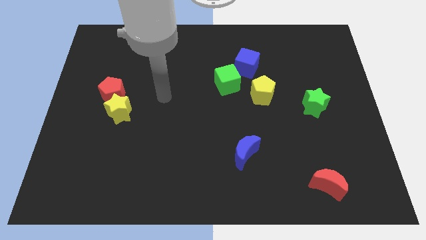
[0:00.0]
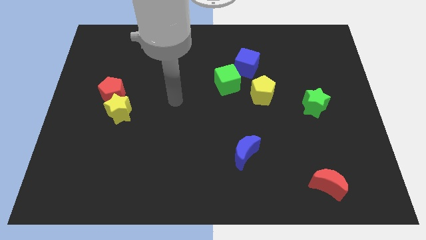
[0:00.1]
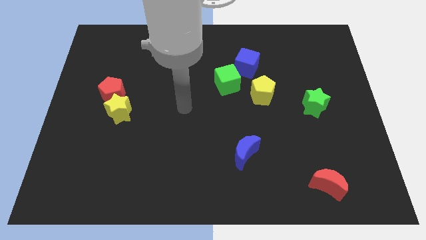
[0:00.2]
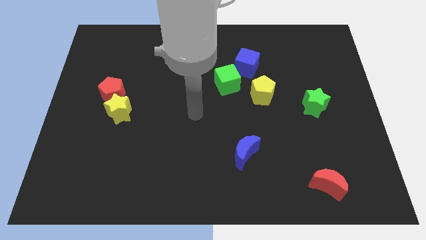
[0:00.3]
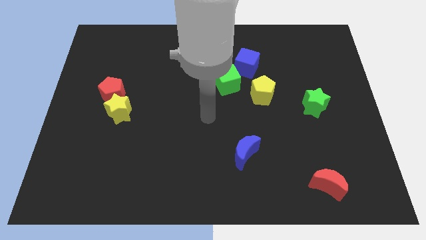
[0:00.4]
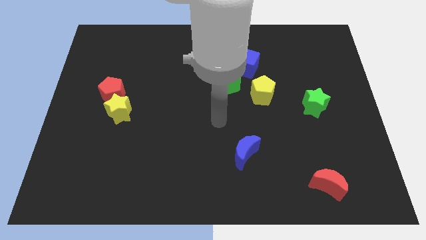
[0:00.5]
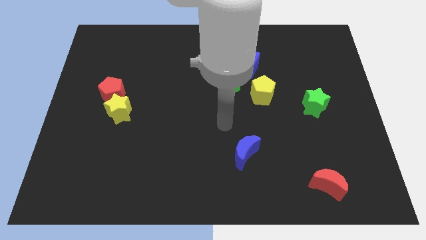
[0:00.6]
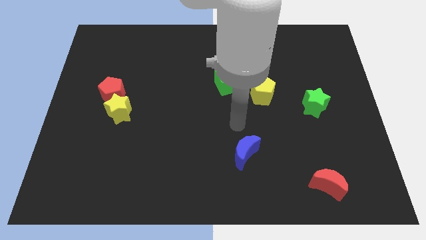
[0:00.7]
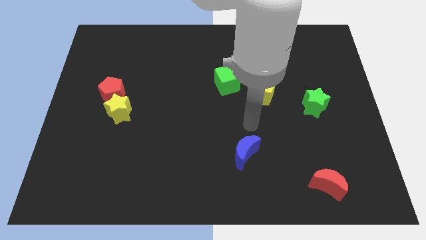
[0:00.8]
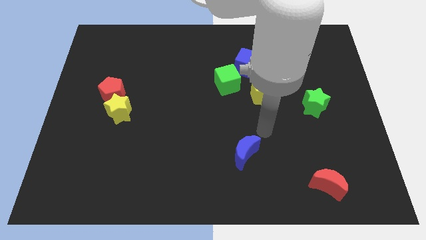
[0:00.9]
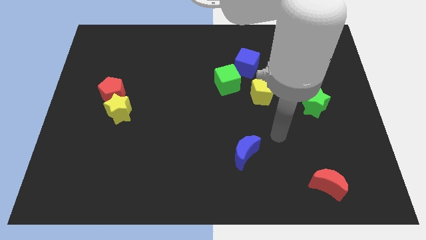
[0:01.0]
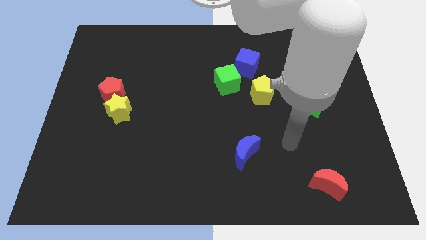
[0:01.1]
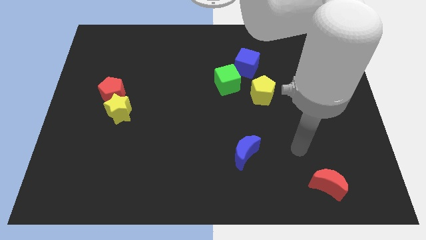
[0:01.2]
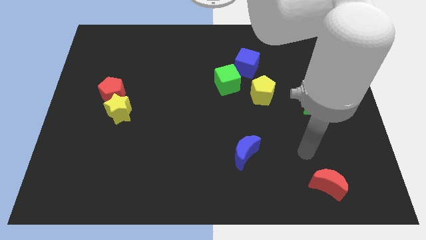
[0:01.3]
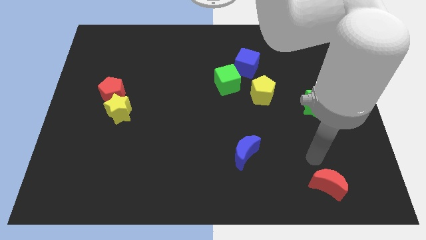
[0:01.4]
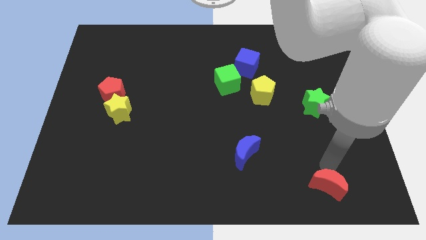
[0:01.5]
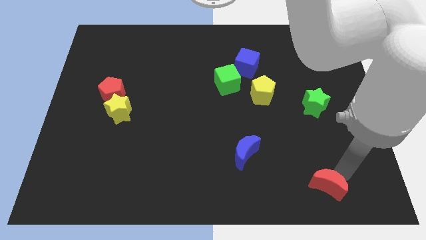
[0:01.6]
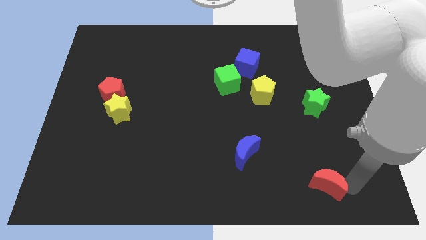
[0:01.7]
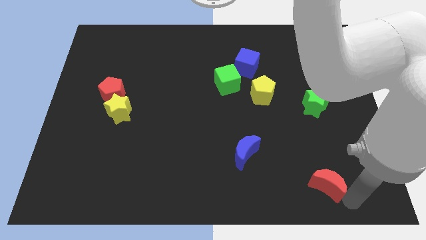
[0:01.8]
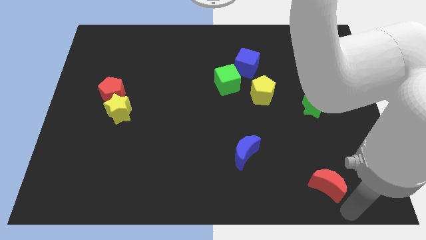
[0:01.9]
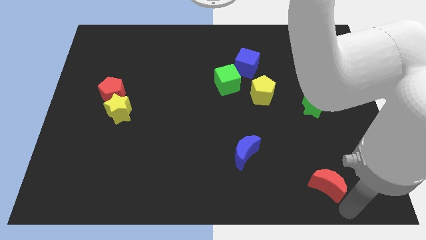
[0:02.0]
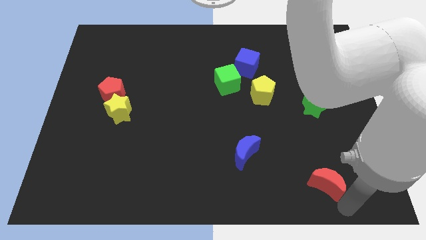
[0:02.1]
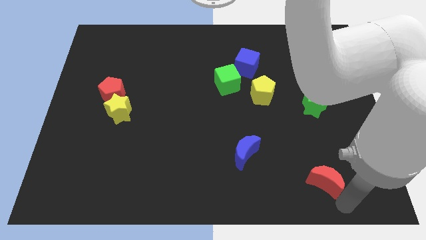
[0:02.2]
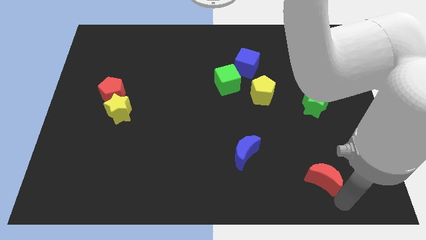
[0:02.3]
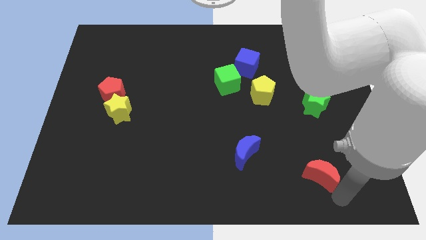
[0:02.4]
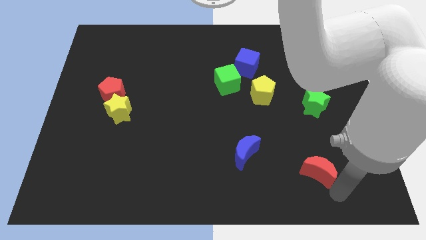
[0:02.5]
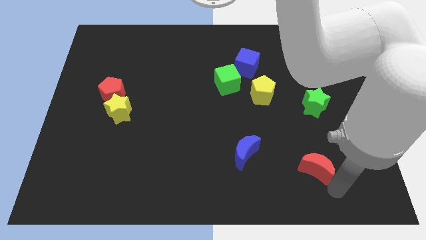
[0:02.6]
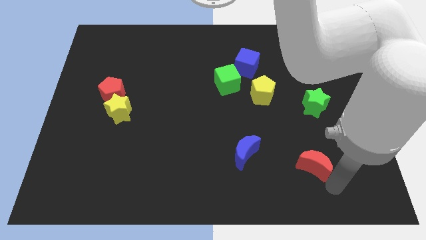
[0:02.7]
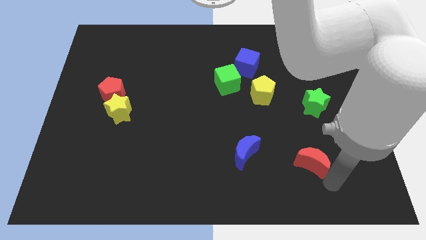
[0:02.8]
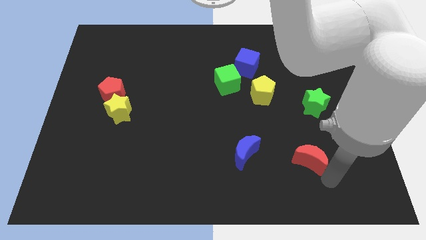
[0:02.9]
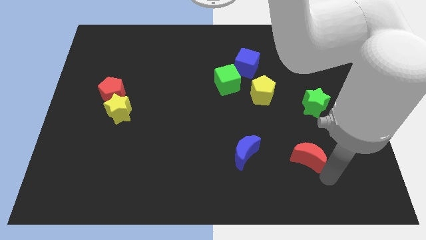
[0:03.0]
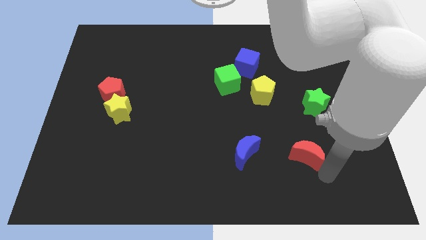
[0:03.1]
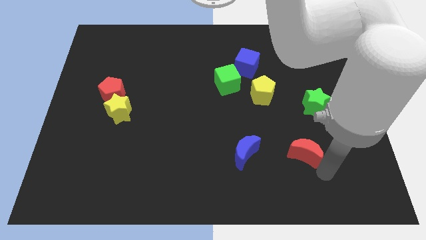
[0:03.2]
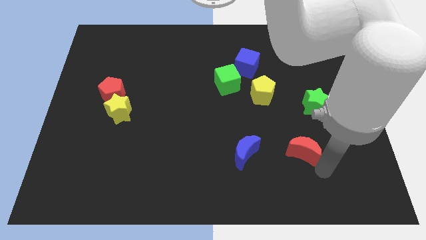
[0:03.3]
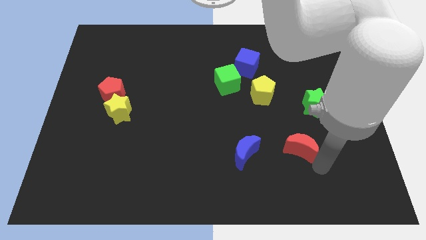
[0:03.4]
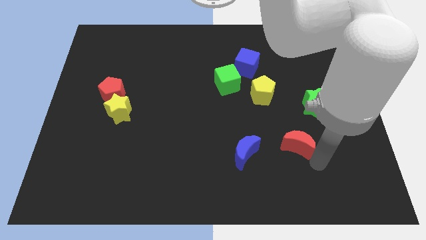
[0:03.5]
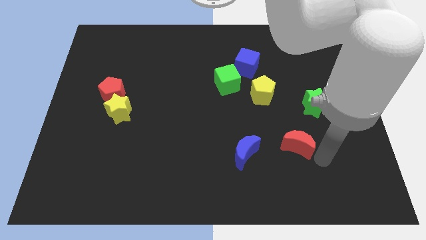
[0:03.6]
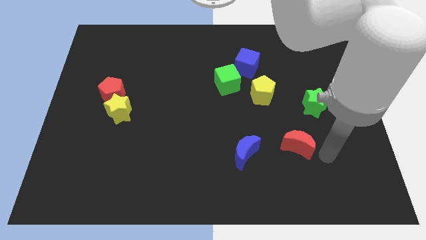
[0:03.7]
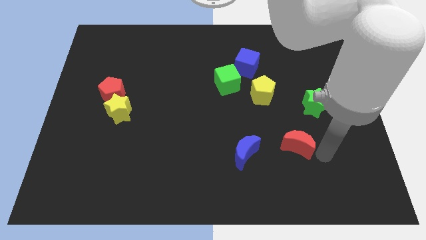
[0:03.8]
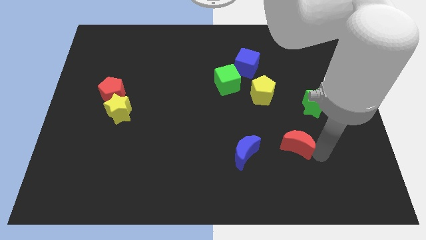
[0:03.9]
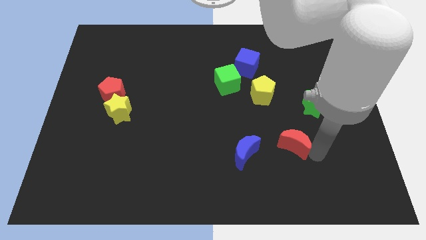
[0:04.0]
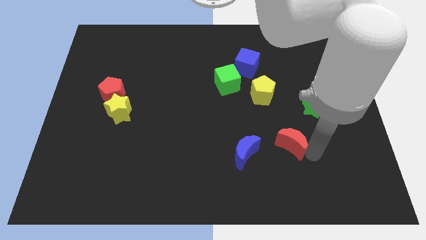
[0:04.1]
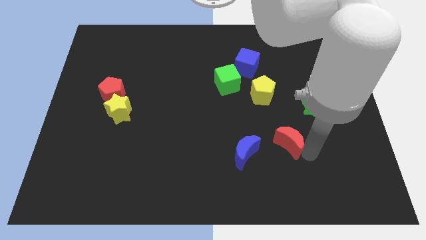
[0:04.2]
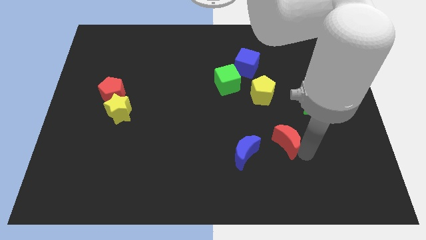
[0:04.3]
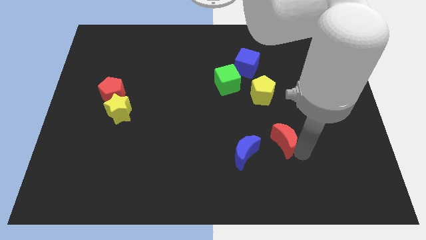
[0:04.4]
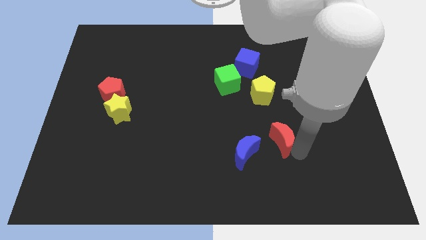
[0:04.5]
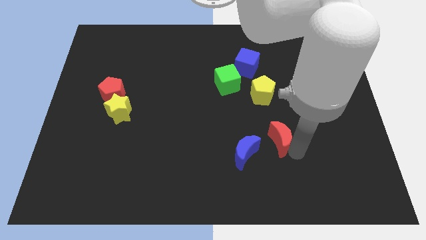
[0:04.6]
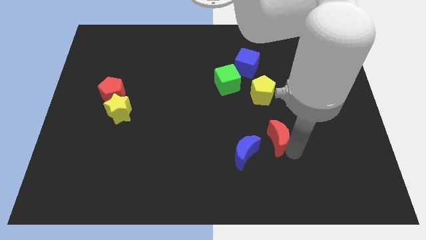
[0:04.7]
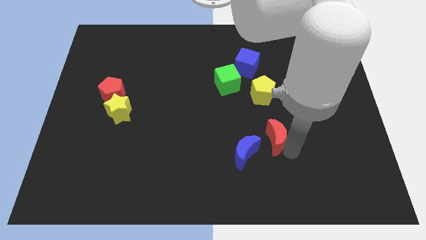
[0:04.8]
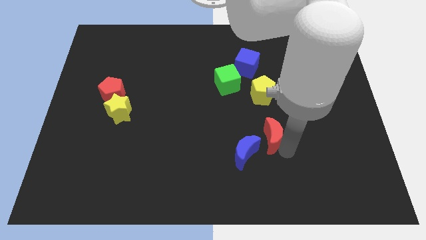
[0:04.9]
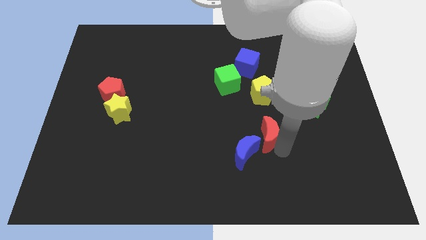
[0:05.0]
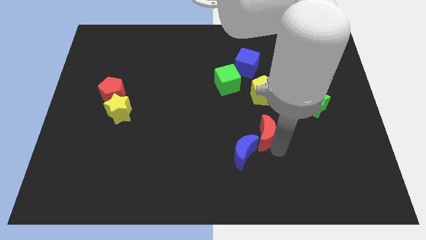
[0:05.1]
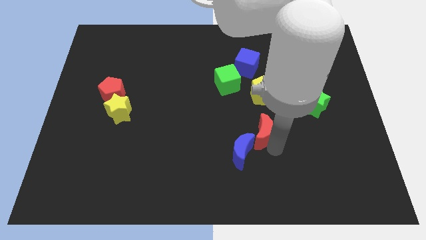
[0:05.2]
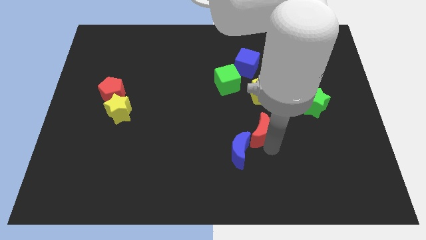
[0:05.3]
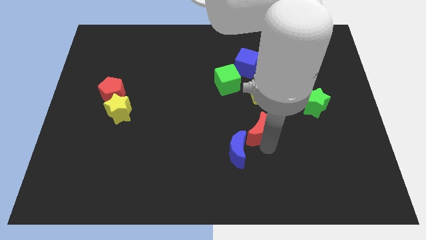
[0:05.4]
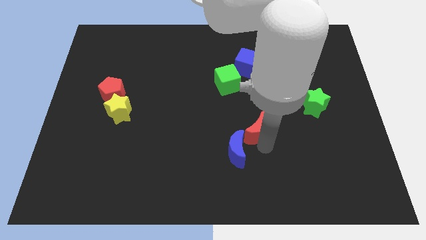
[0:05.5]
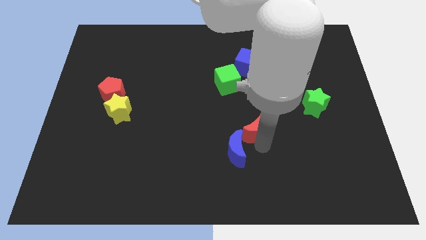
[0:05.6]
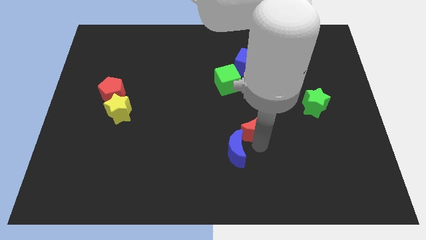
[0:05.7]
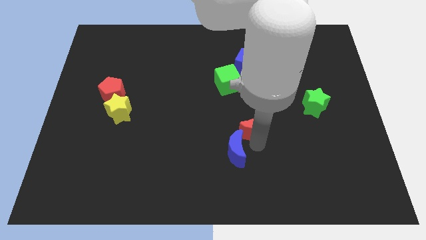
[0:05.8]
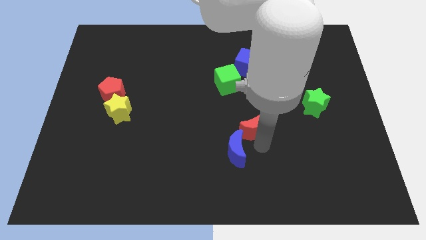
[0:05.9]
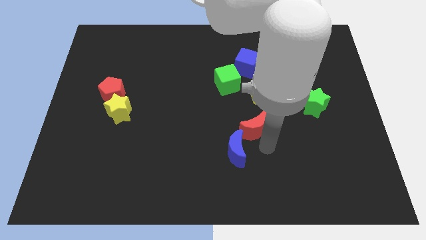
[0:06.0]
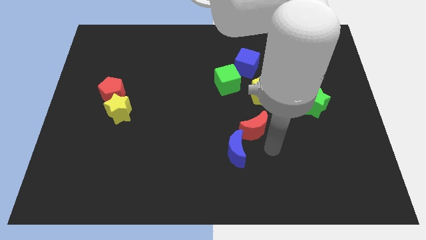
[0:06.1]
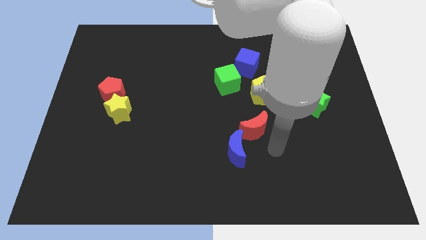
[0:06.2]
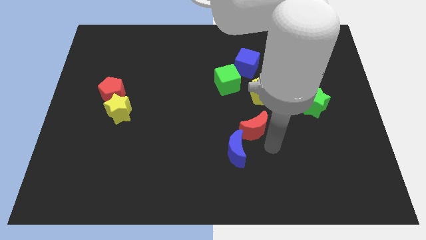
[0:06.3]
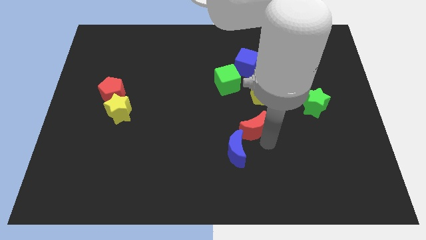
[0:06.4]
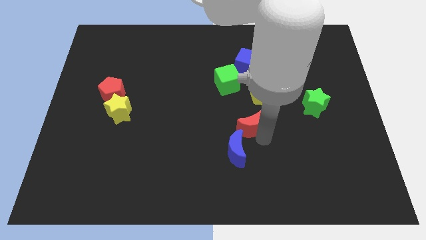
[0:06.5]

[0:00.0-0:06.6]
push the red moon up and then to the left

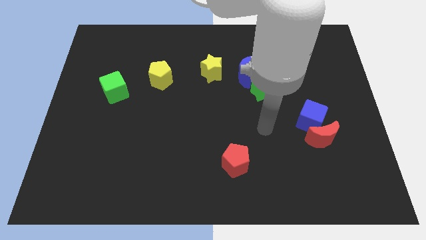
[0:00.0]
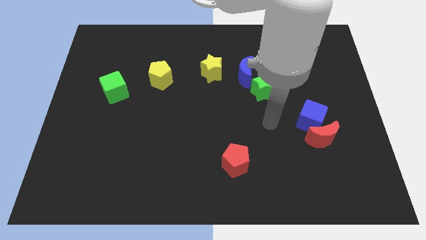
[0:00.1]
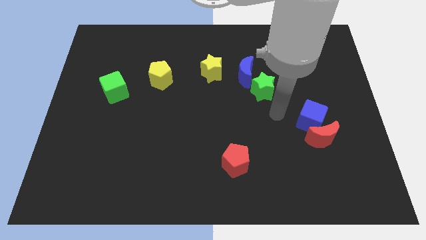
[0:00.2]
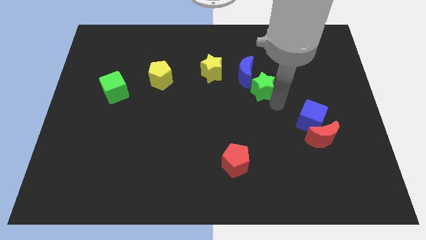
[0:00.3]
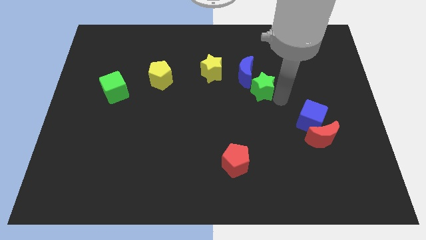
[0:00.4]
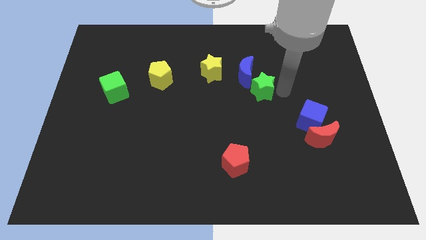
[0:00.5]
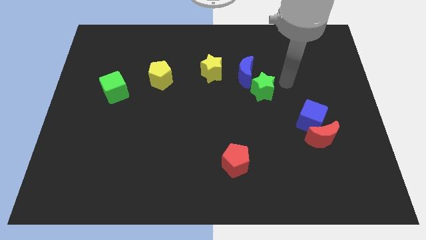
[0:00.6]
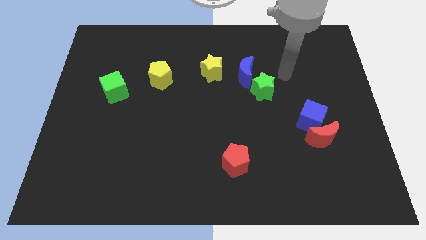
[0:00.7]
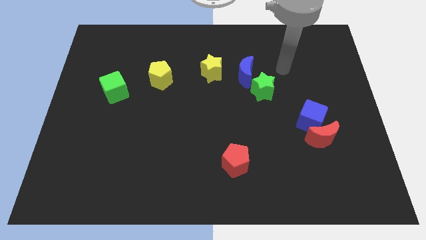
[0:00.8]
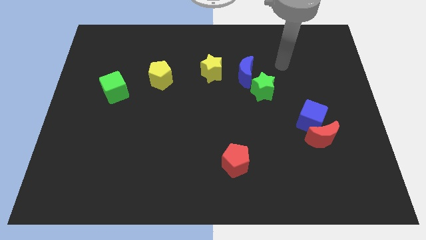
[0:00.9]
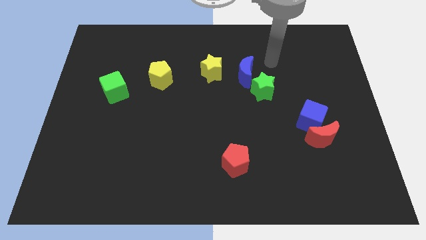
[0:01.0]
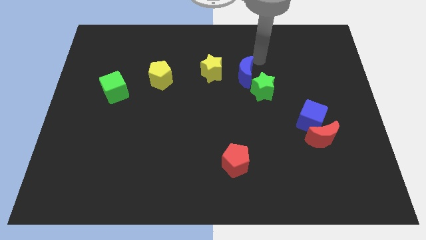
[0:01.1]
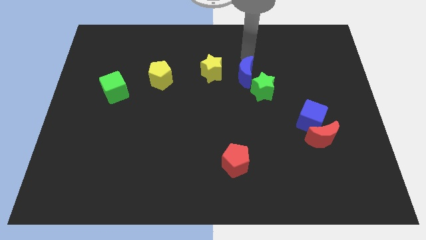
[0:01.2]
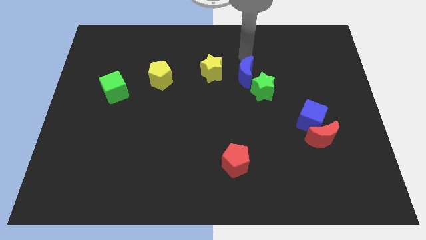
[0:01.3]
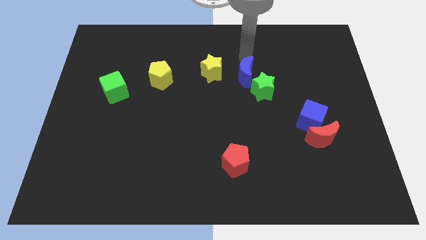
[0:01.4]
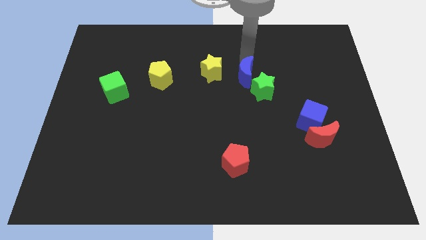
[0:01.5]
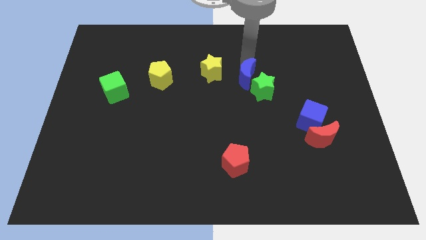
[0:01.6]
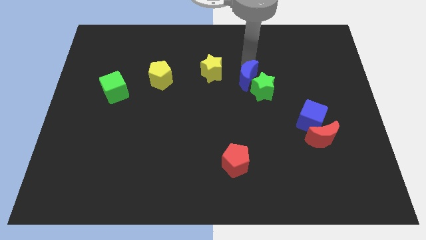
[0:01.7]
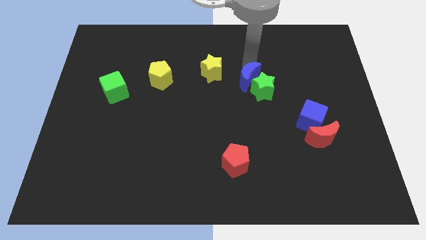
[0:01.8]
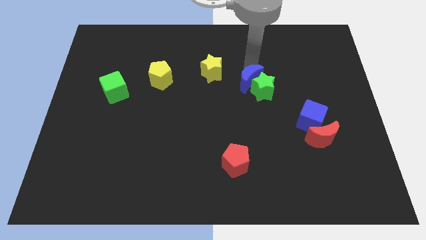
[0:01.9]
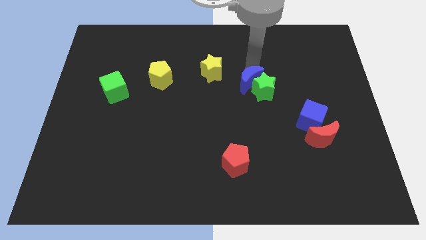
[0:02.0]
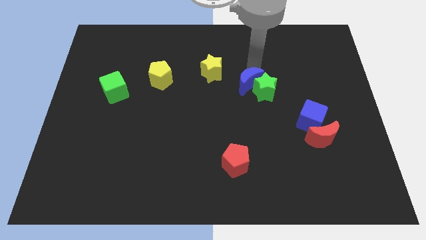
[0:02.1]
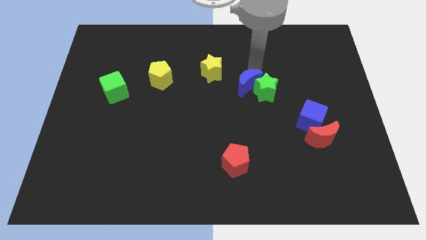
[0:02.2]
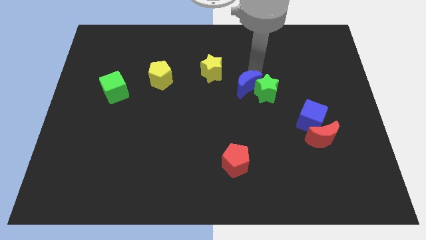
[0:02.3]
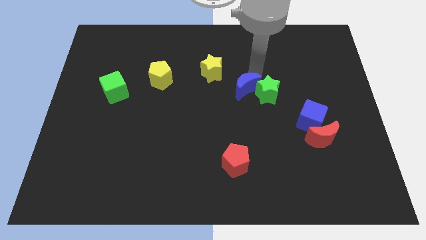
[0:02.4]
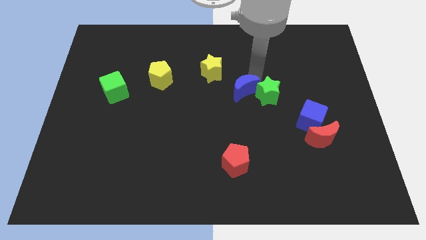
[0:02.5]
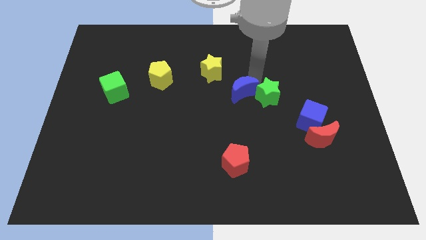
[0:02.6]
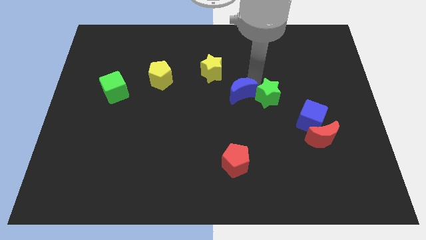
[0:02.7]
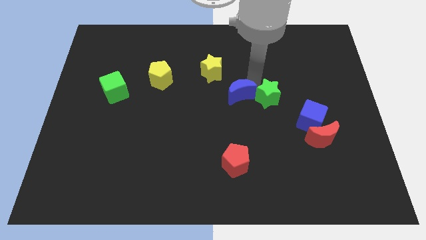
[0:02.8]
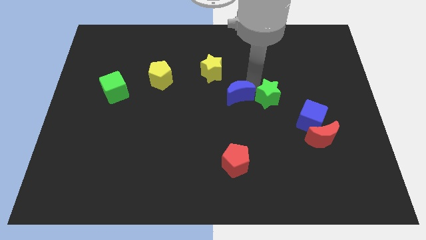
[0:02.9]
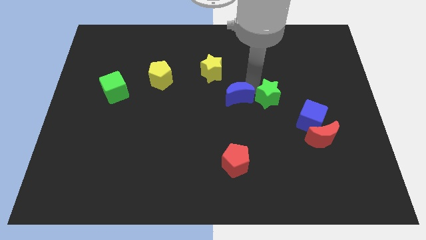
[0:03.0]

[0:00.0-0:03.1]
slide the blue moon slightly down
